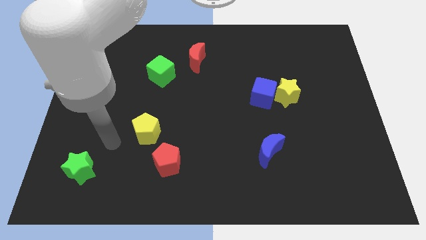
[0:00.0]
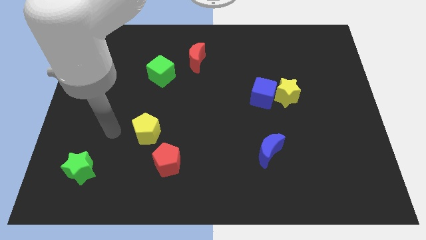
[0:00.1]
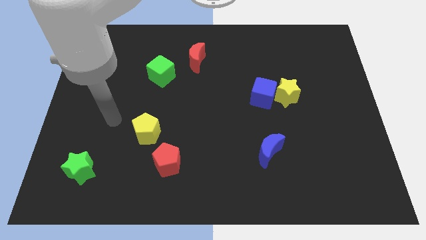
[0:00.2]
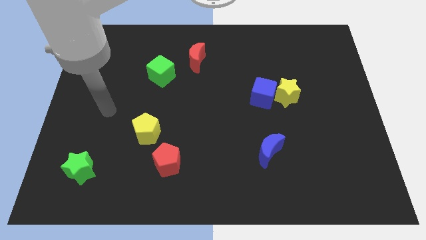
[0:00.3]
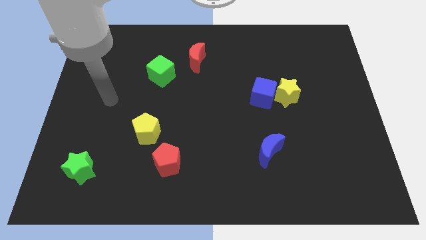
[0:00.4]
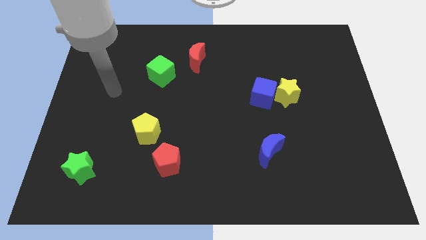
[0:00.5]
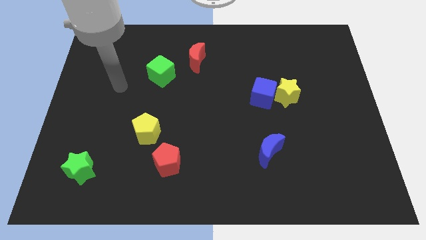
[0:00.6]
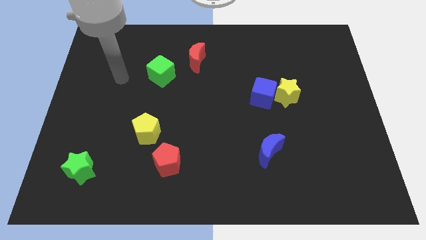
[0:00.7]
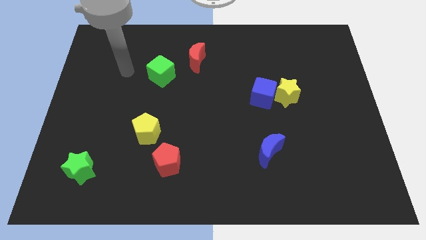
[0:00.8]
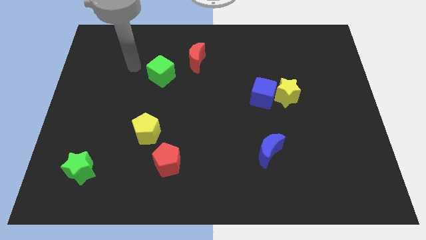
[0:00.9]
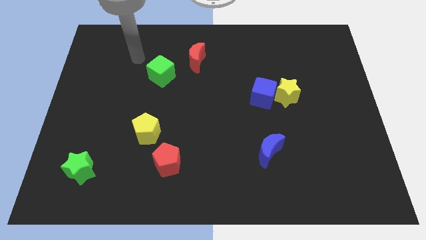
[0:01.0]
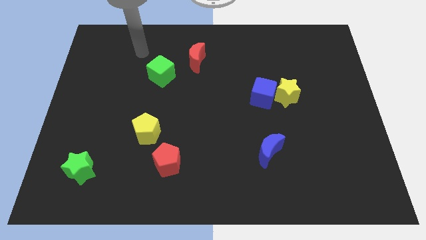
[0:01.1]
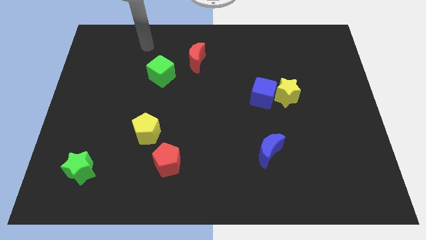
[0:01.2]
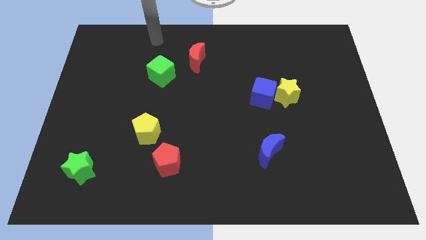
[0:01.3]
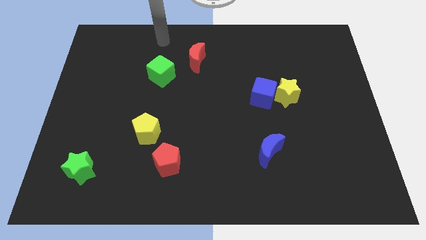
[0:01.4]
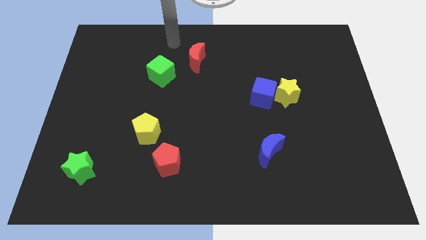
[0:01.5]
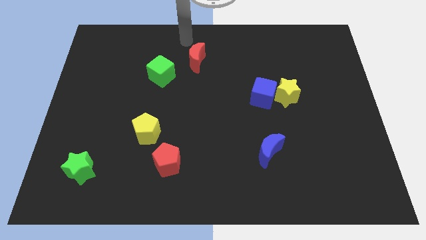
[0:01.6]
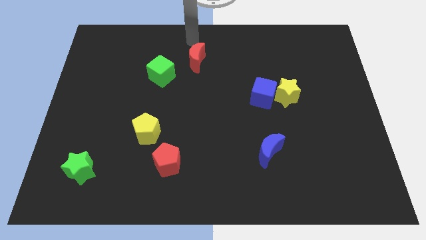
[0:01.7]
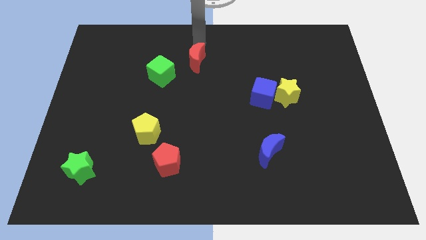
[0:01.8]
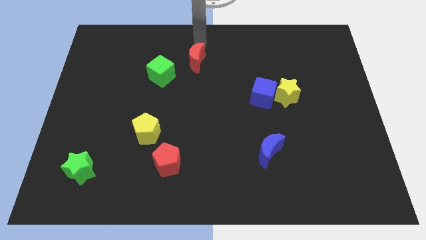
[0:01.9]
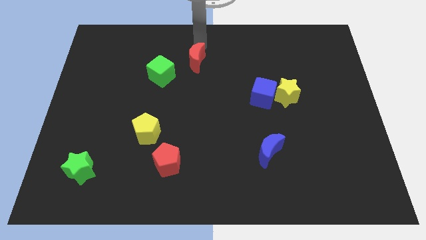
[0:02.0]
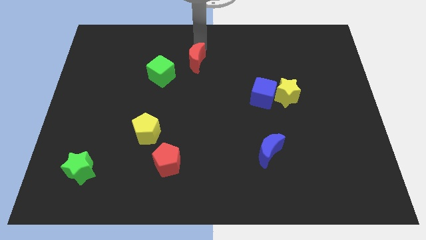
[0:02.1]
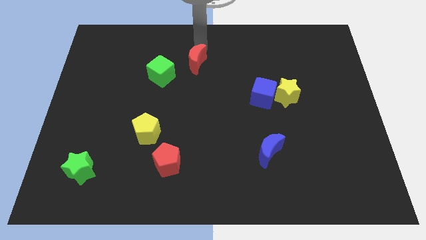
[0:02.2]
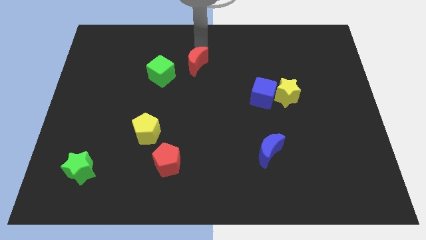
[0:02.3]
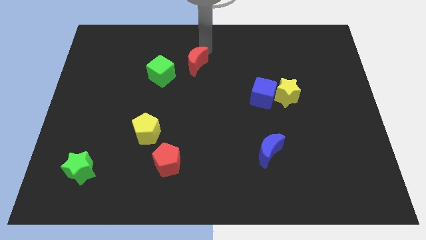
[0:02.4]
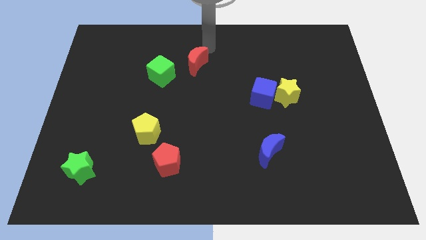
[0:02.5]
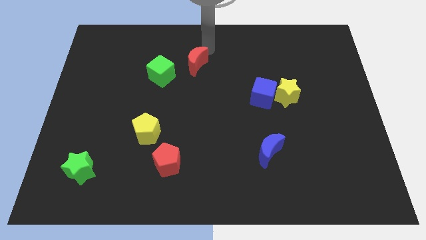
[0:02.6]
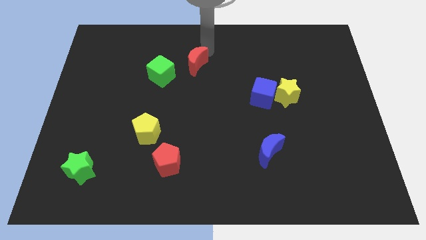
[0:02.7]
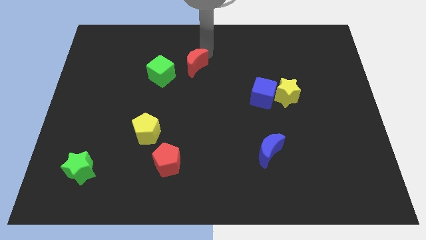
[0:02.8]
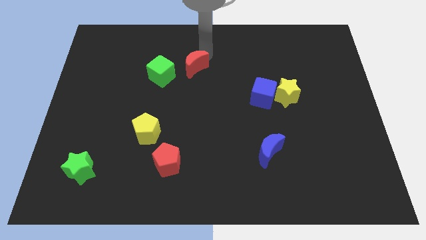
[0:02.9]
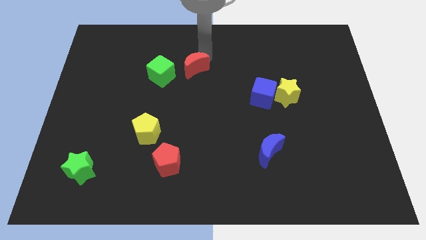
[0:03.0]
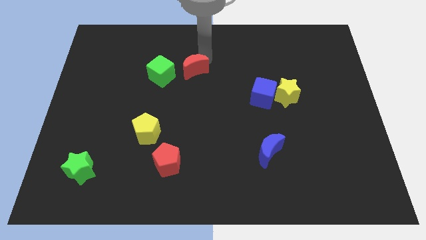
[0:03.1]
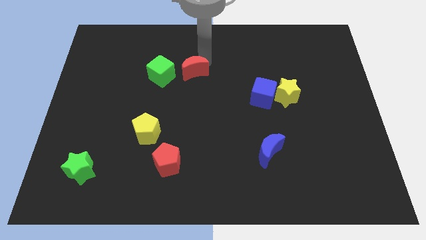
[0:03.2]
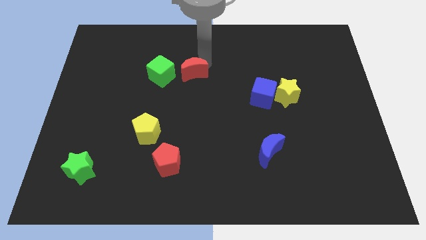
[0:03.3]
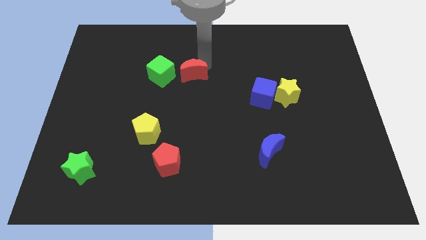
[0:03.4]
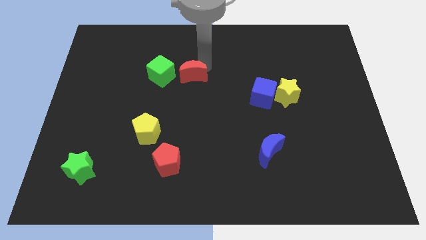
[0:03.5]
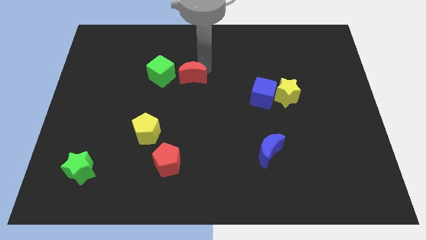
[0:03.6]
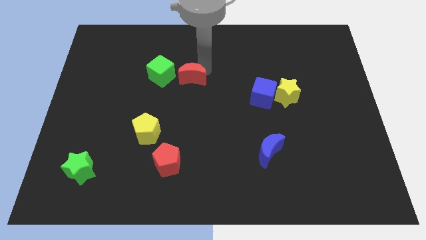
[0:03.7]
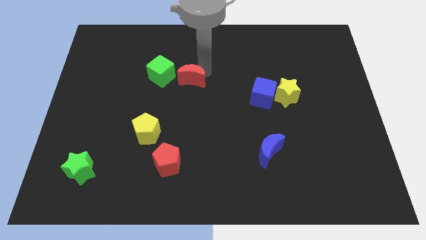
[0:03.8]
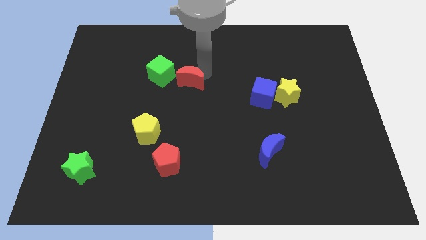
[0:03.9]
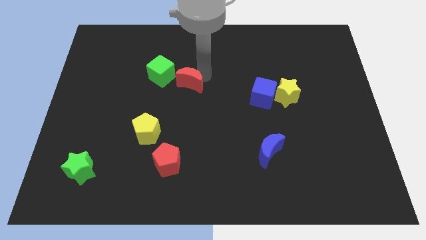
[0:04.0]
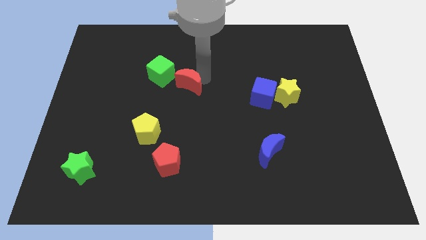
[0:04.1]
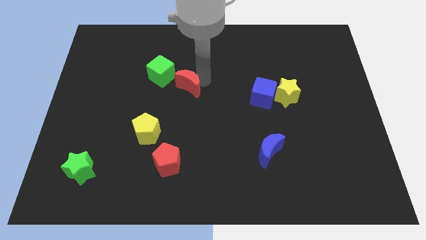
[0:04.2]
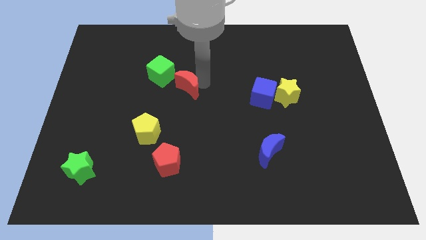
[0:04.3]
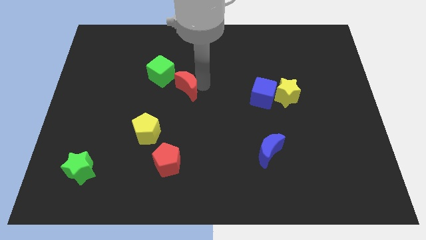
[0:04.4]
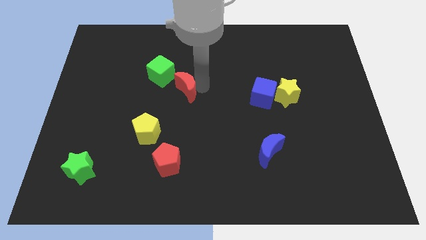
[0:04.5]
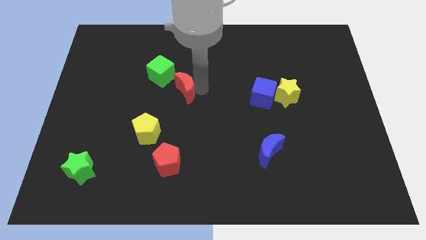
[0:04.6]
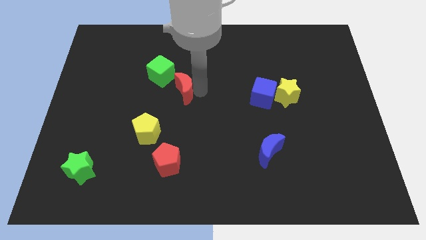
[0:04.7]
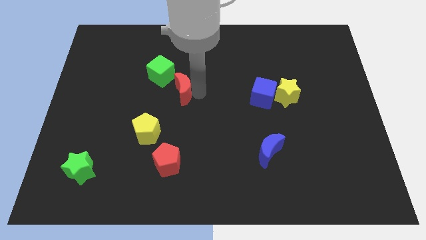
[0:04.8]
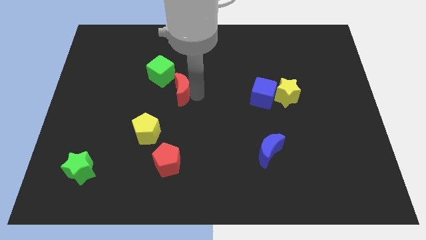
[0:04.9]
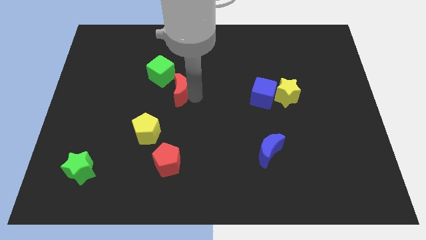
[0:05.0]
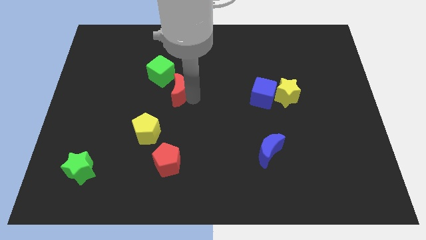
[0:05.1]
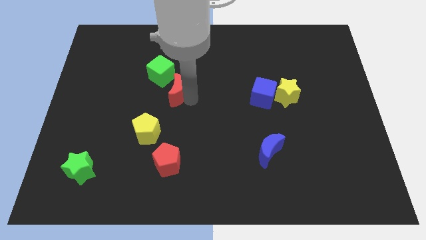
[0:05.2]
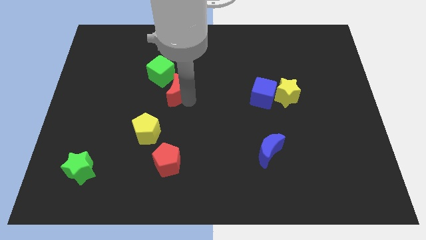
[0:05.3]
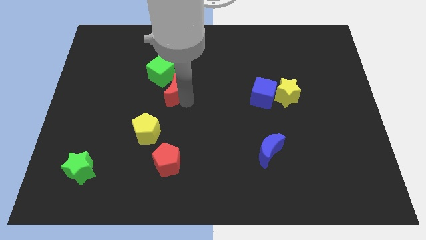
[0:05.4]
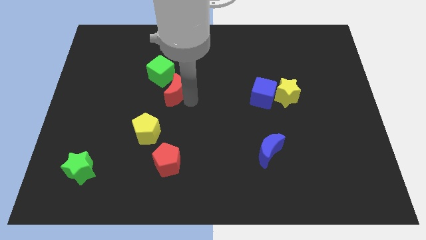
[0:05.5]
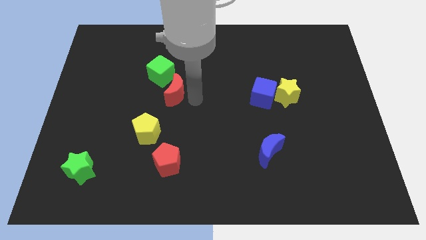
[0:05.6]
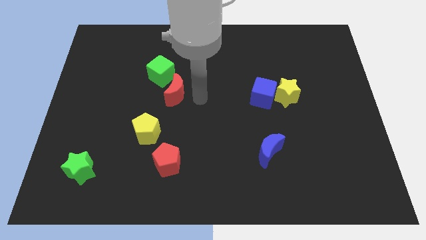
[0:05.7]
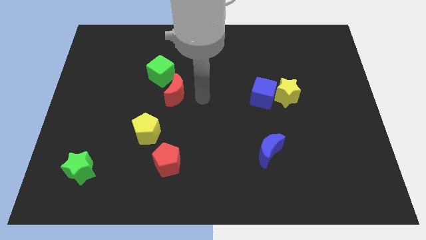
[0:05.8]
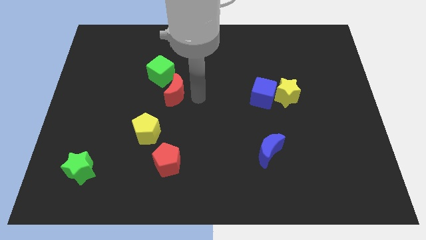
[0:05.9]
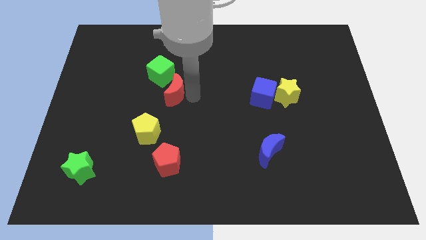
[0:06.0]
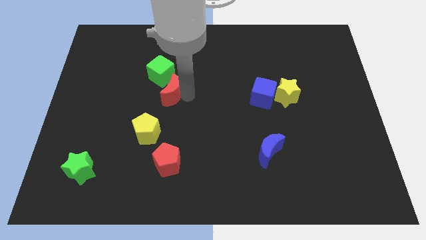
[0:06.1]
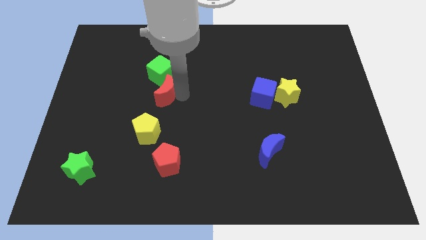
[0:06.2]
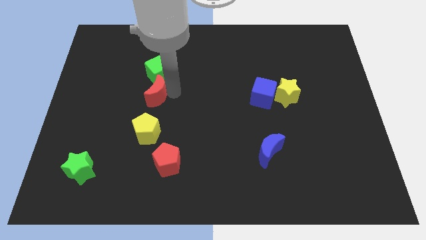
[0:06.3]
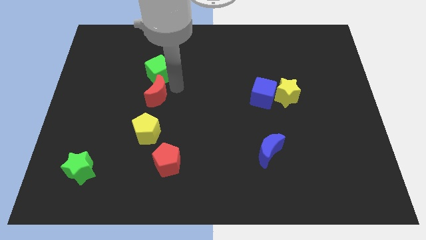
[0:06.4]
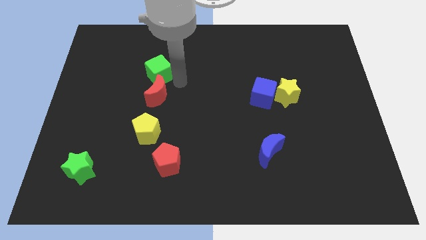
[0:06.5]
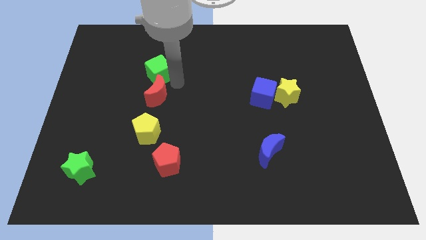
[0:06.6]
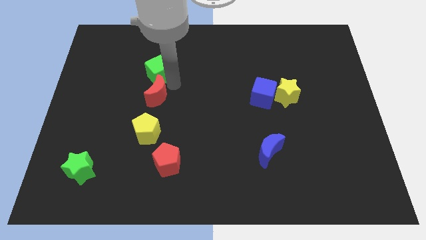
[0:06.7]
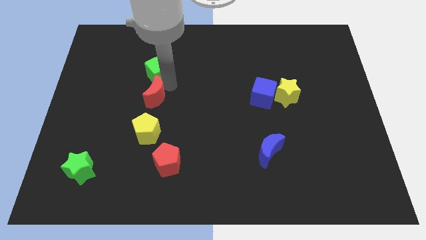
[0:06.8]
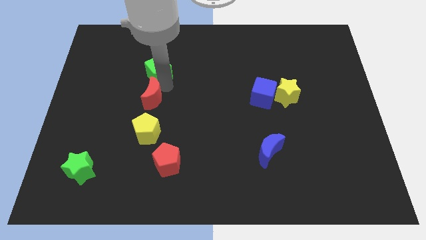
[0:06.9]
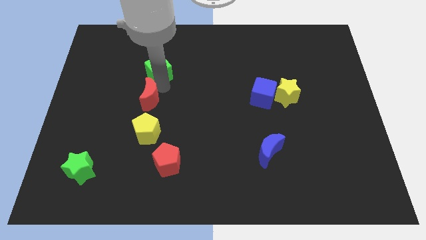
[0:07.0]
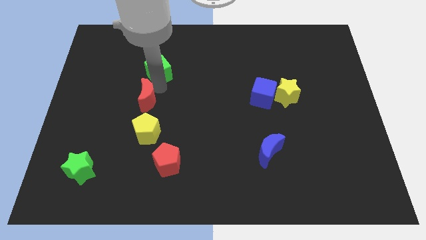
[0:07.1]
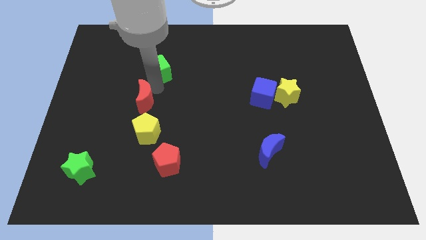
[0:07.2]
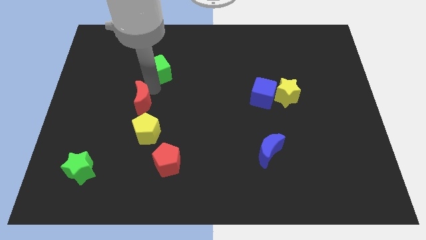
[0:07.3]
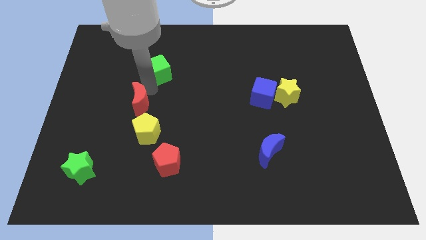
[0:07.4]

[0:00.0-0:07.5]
slide the red moon to the top left of the yellow pentagon
